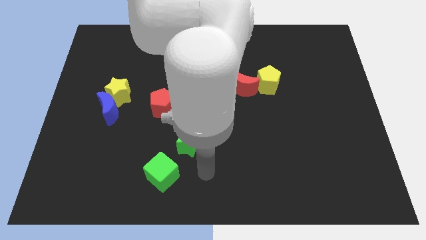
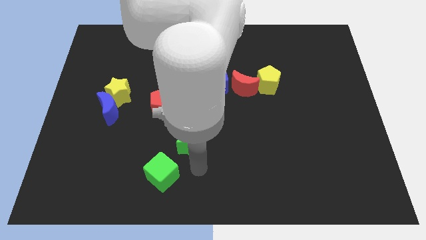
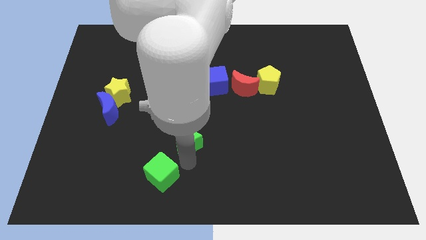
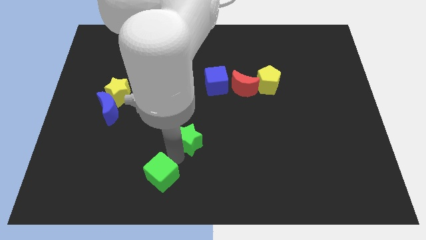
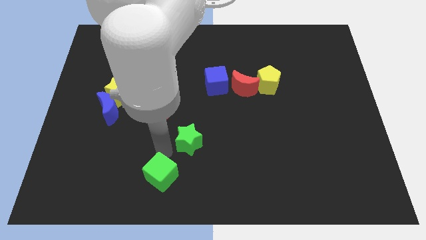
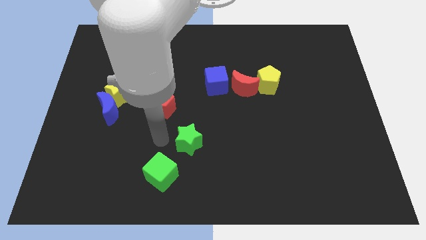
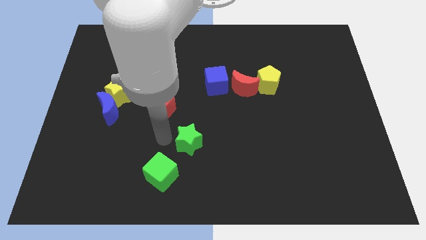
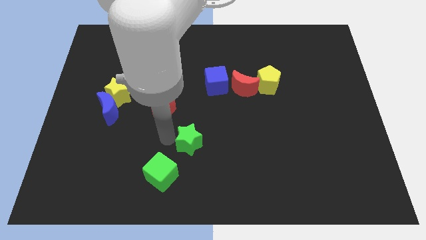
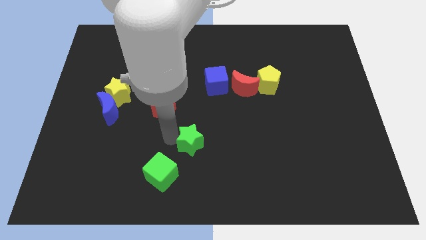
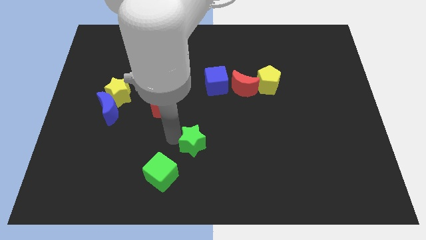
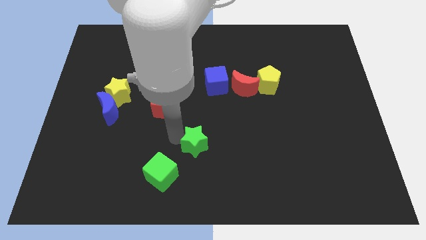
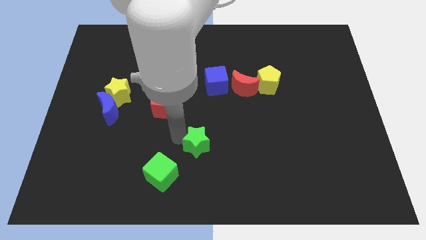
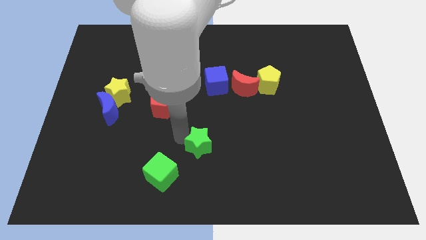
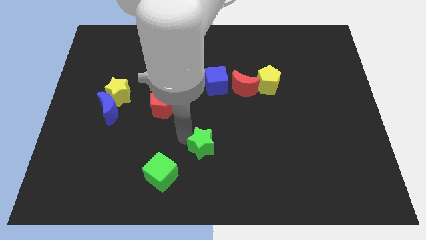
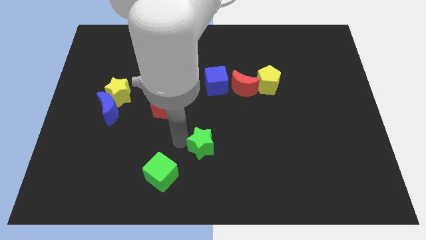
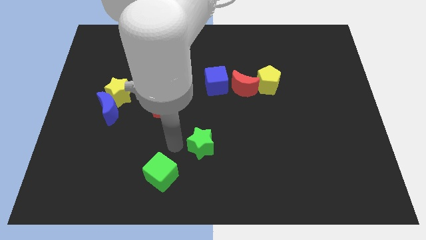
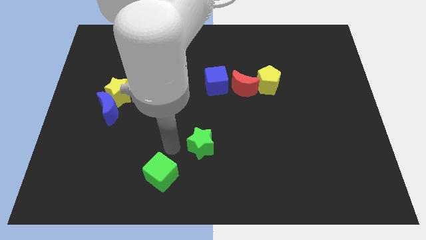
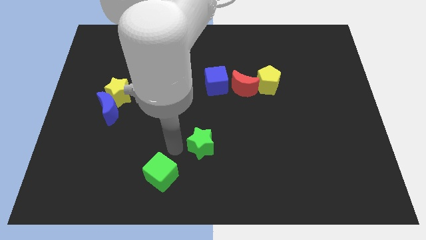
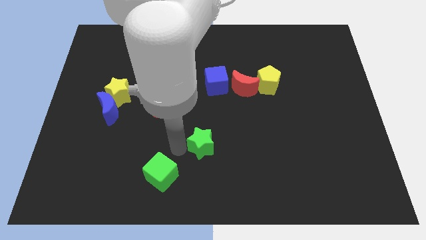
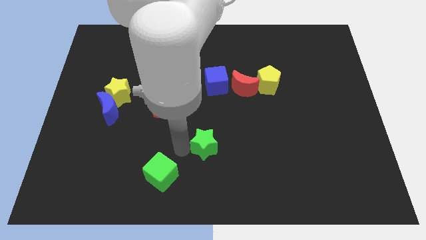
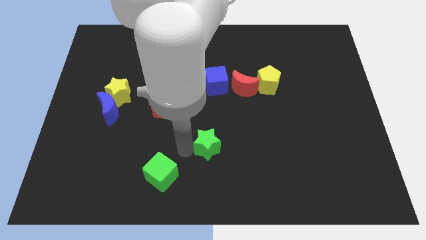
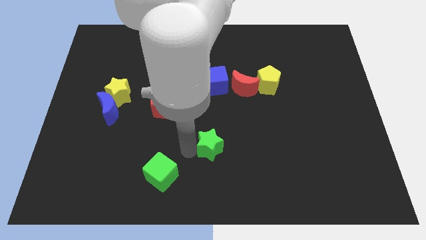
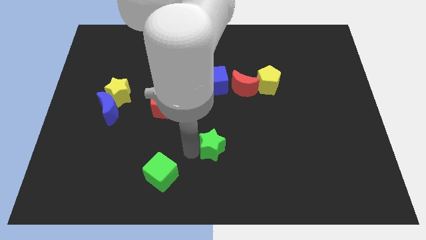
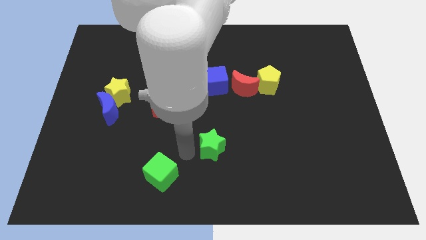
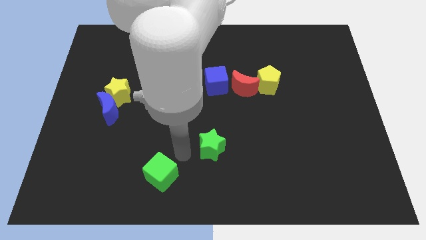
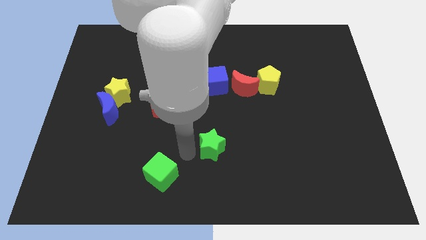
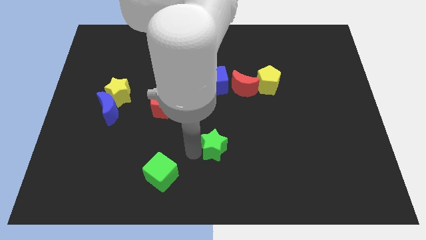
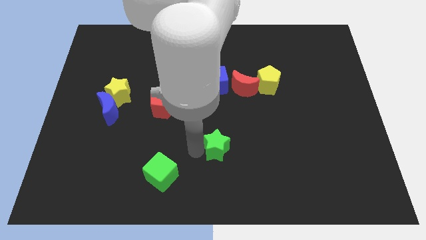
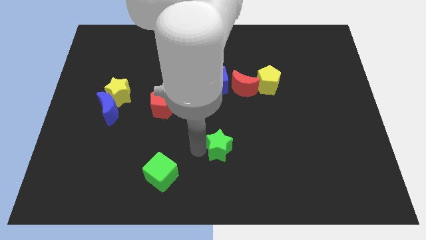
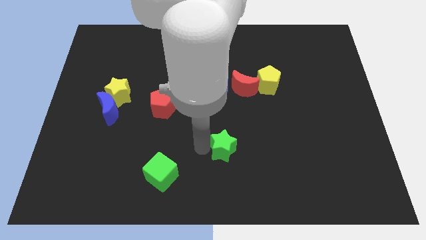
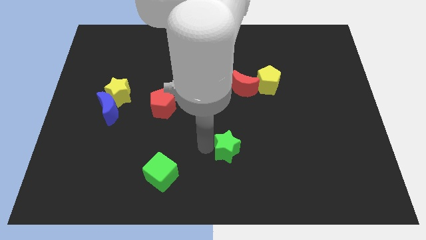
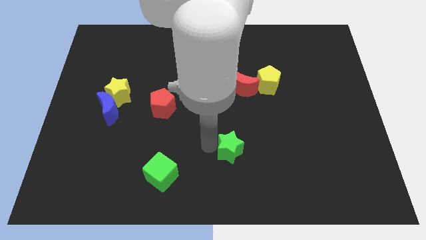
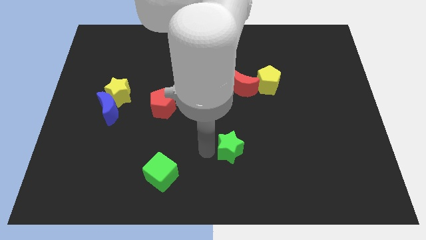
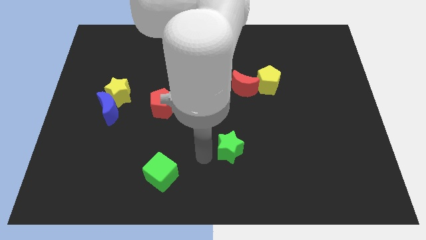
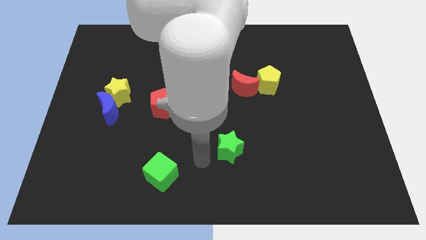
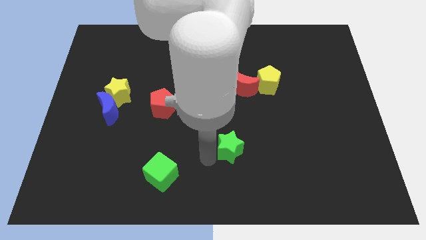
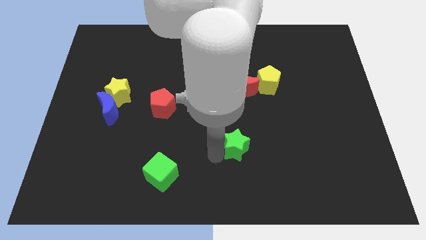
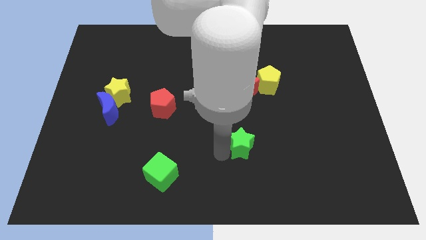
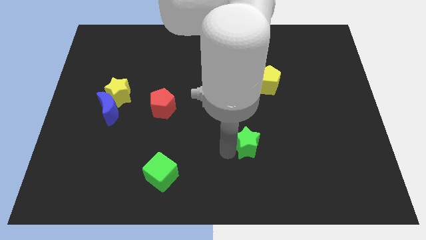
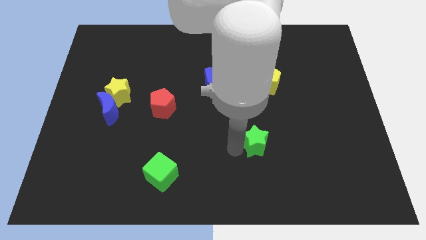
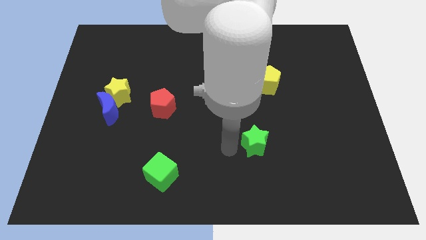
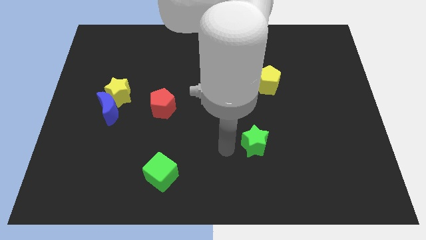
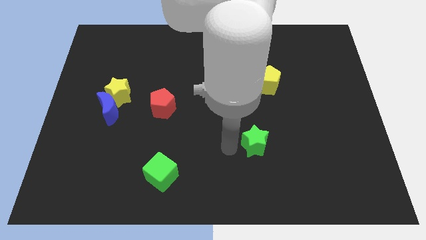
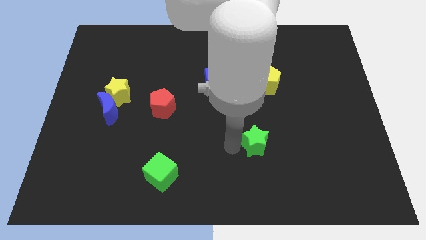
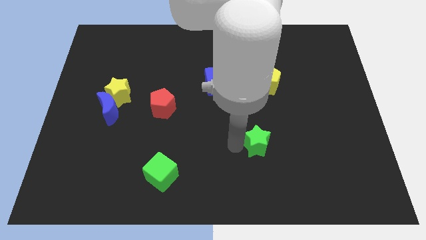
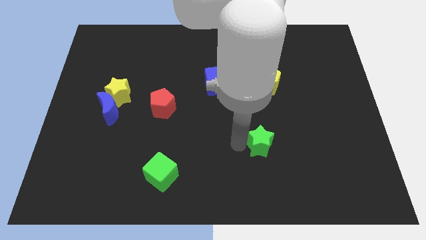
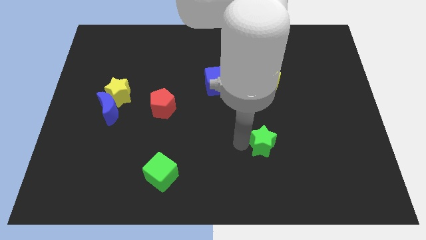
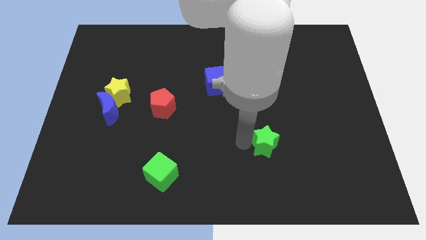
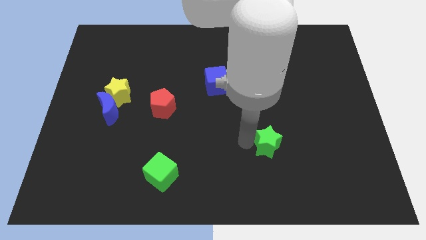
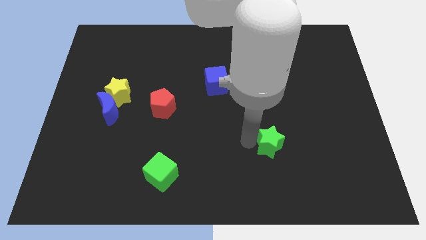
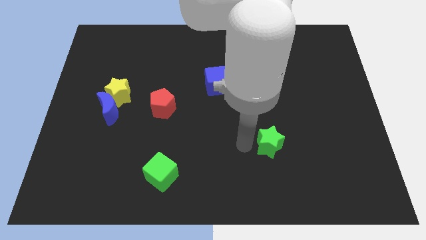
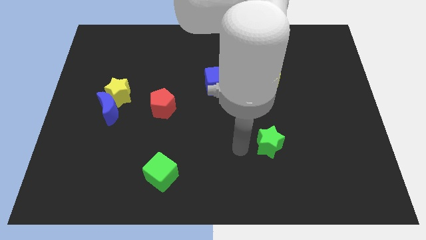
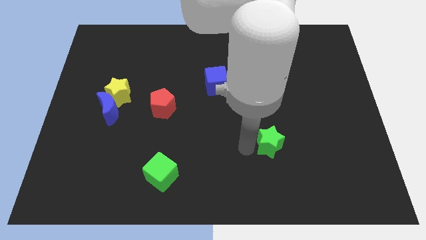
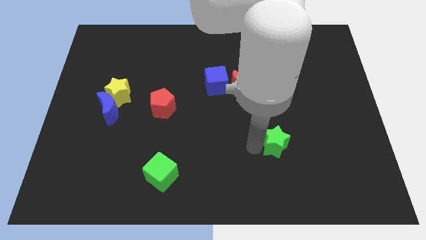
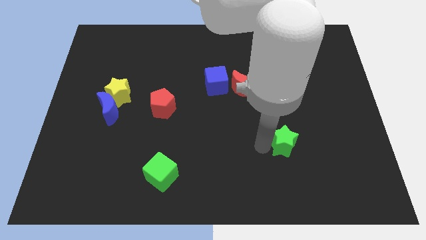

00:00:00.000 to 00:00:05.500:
slide the green star right

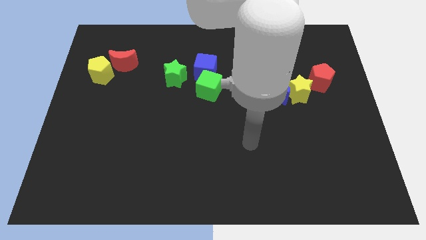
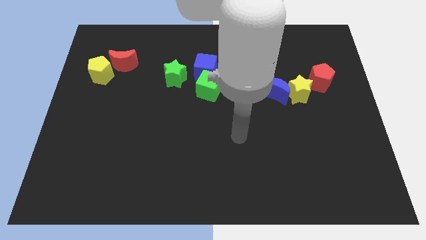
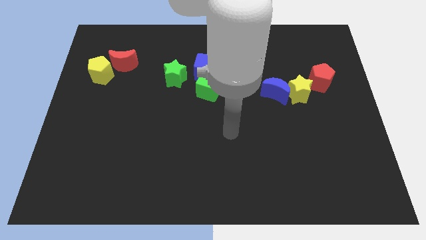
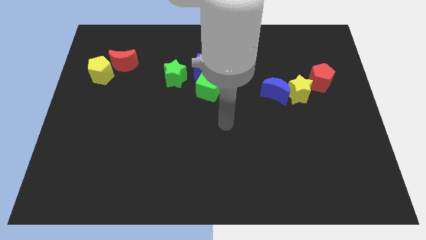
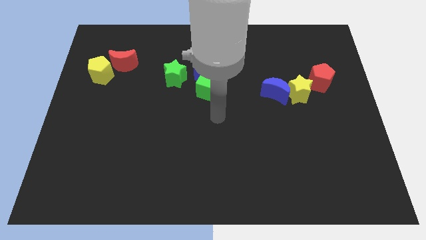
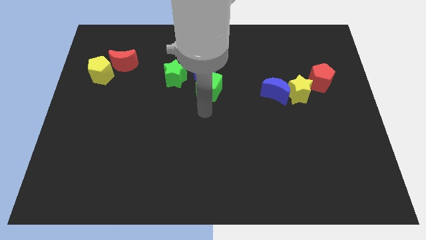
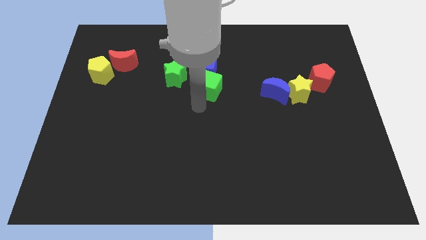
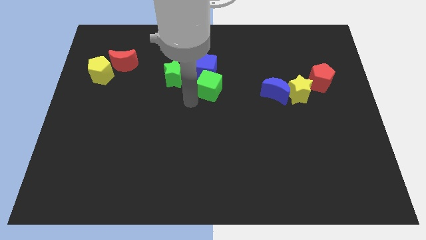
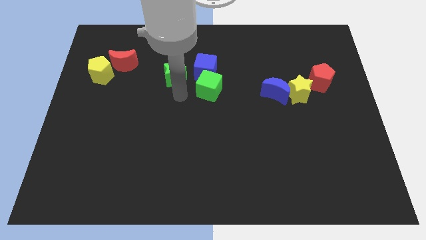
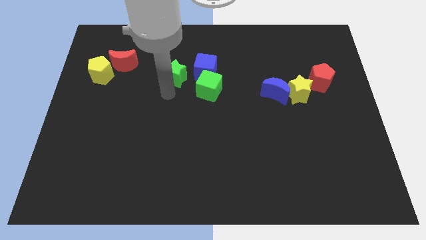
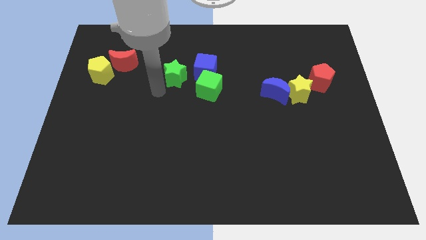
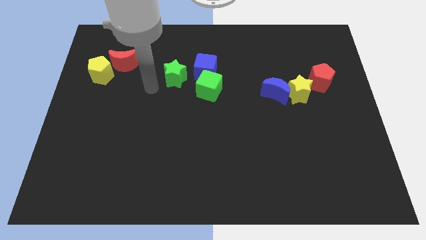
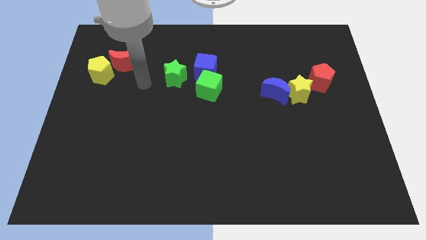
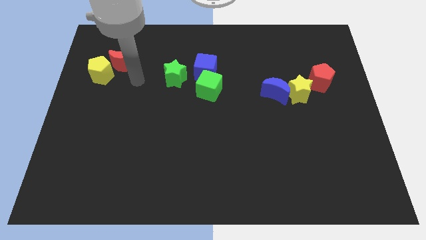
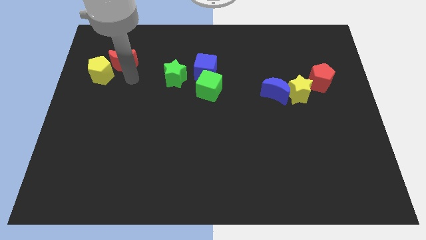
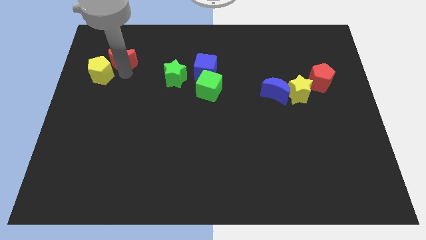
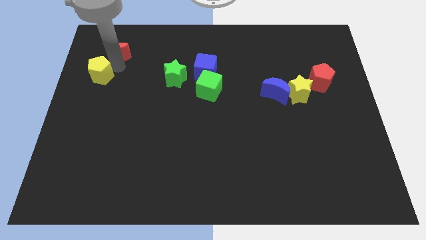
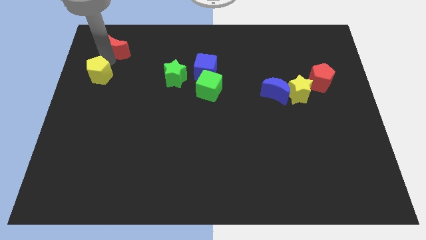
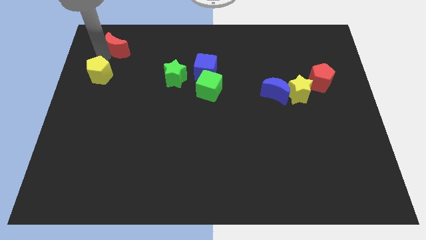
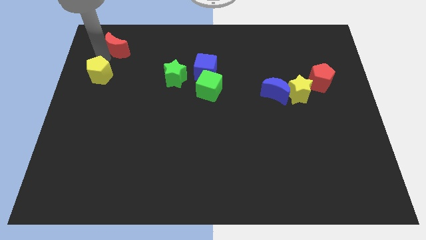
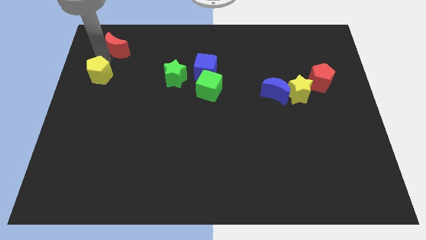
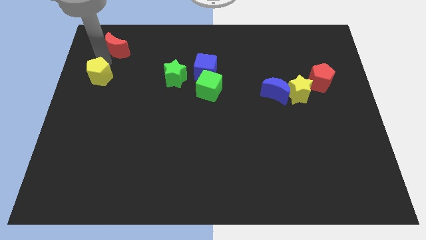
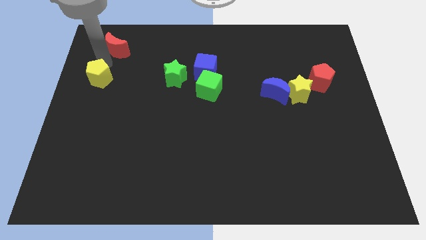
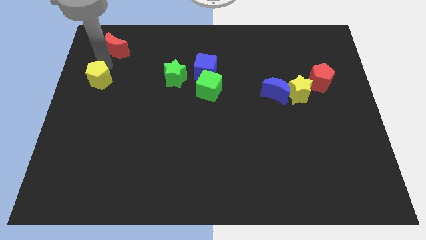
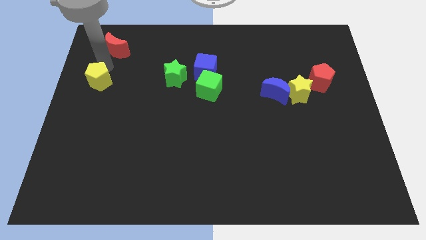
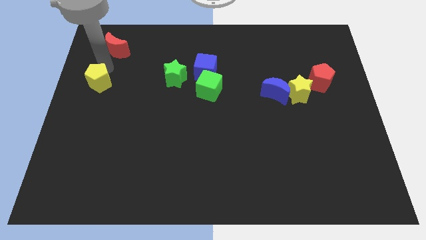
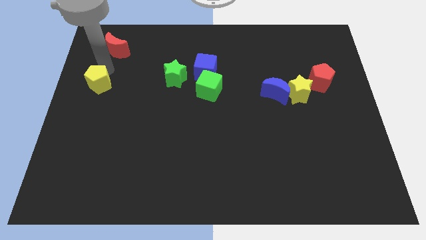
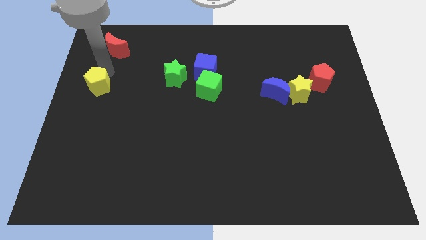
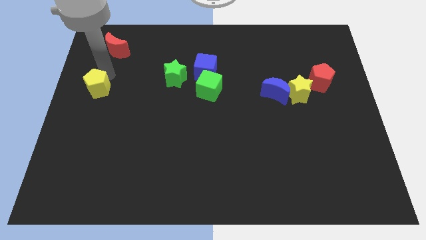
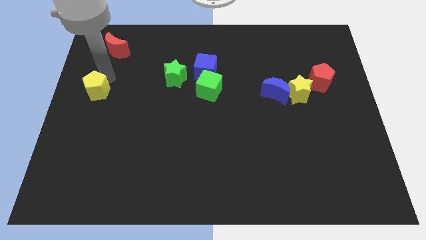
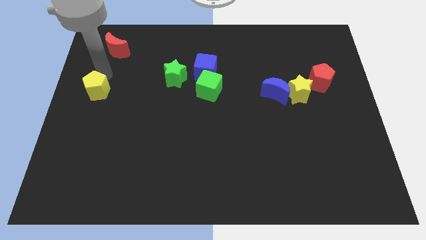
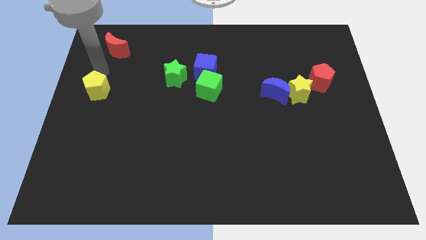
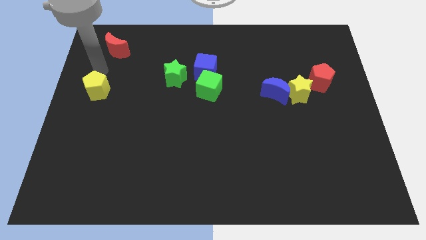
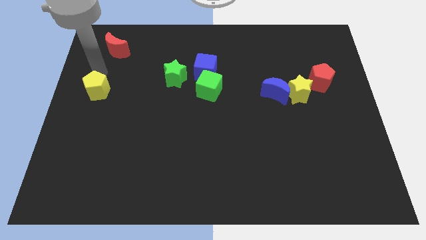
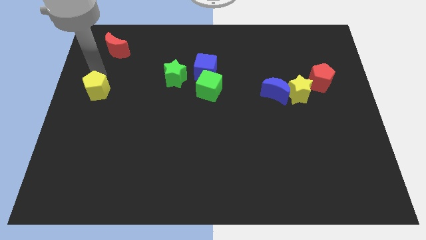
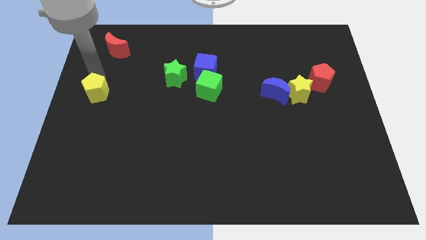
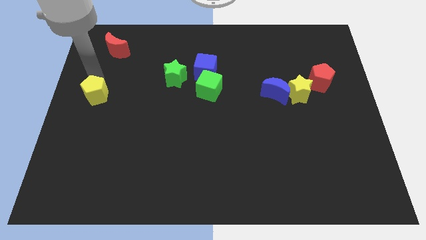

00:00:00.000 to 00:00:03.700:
push the yellow pentagon downwards a little bit
